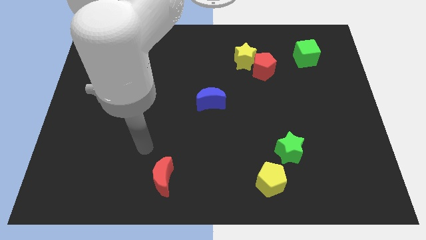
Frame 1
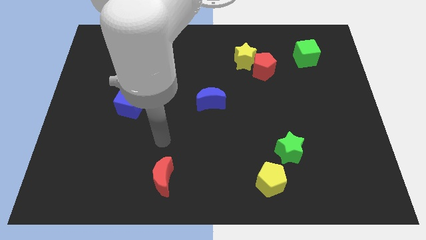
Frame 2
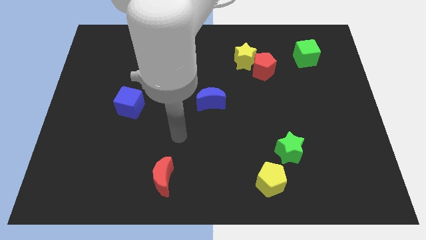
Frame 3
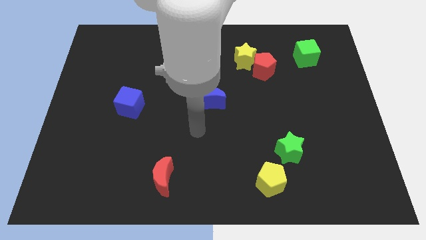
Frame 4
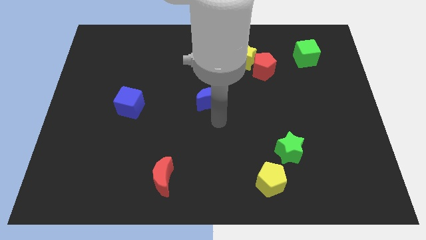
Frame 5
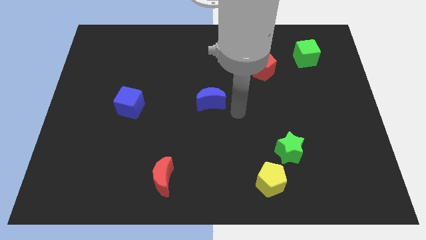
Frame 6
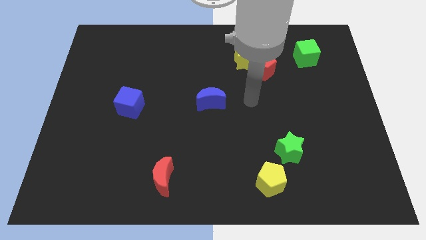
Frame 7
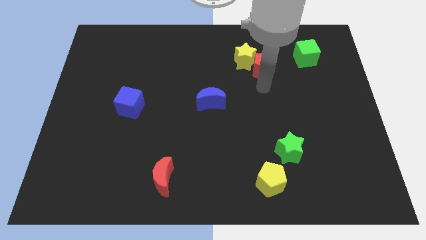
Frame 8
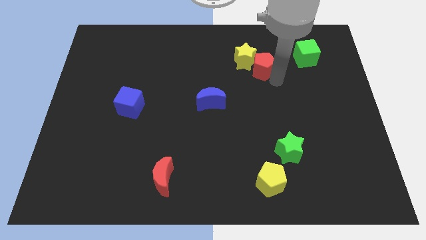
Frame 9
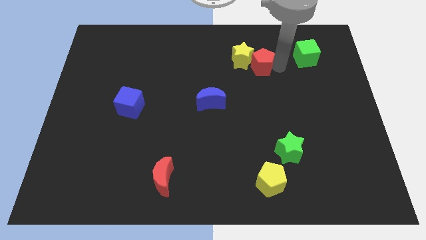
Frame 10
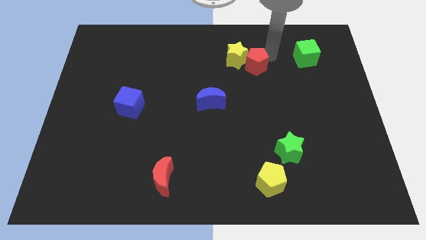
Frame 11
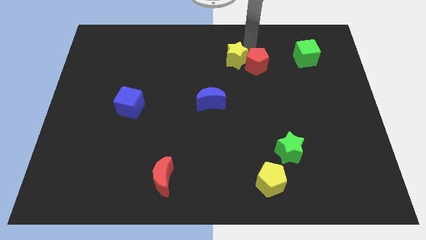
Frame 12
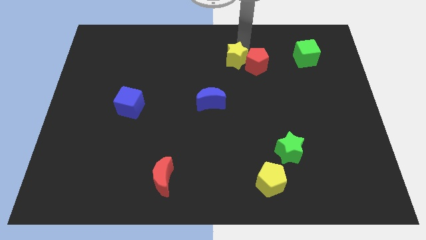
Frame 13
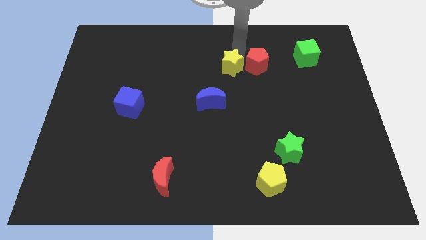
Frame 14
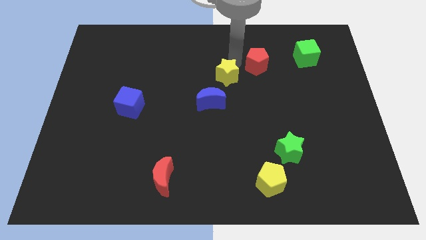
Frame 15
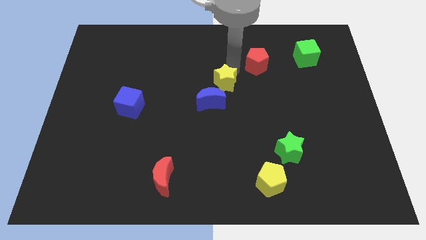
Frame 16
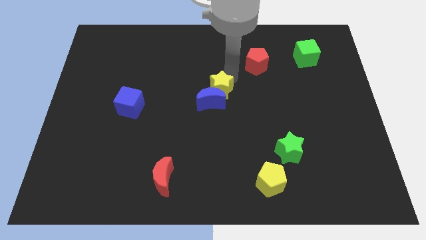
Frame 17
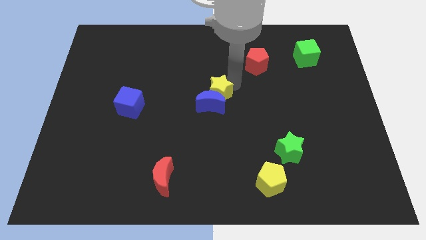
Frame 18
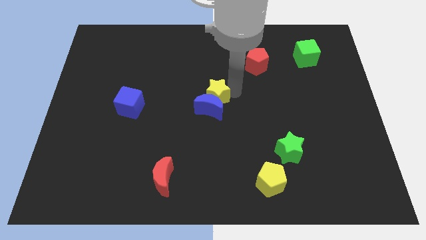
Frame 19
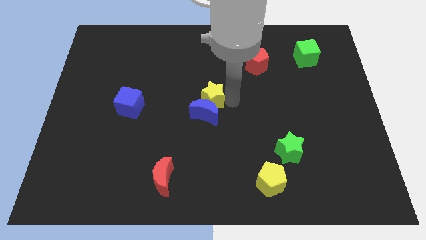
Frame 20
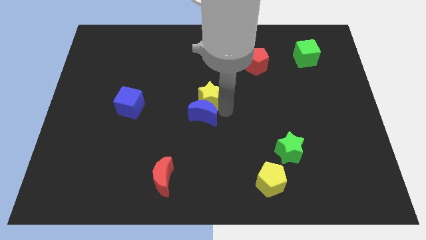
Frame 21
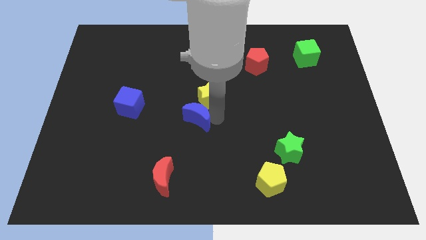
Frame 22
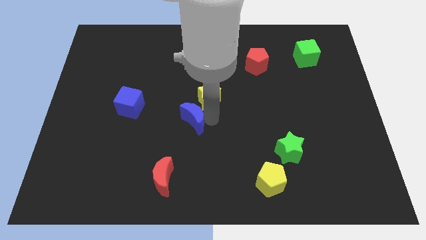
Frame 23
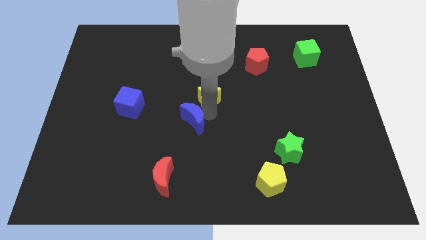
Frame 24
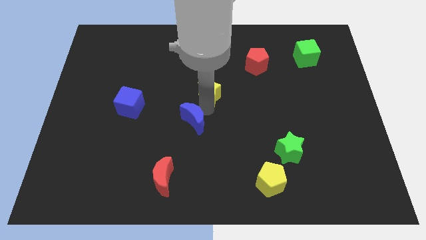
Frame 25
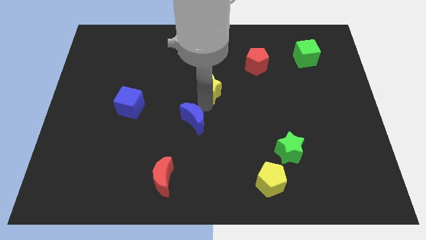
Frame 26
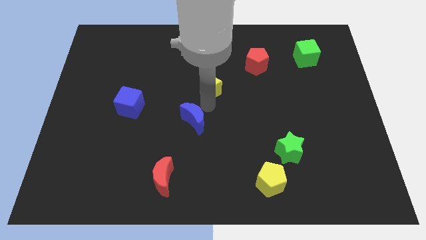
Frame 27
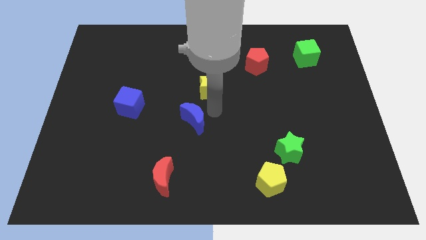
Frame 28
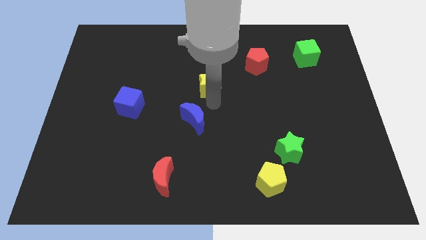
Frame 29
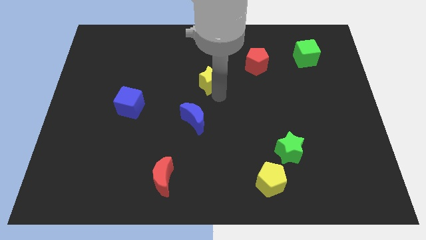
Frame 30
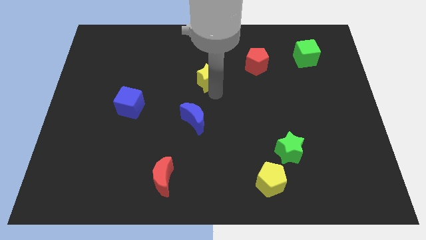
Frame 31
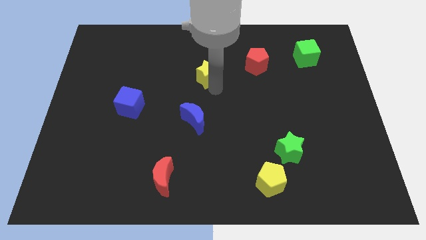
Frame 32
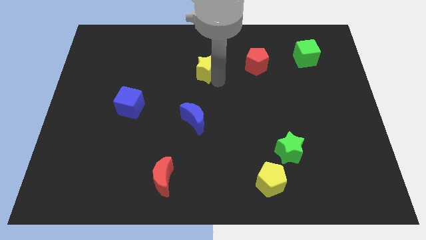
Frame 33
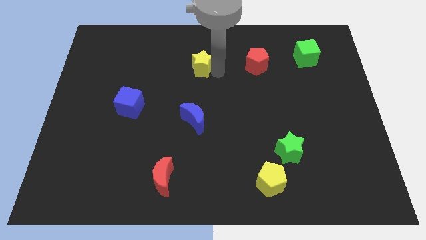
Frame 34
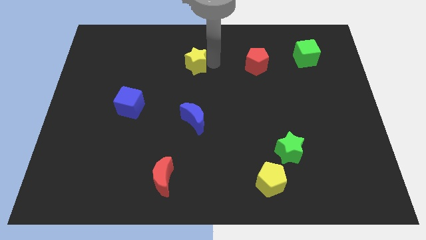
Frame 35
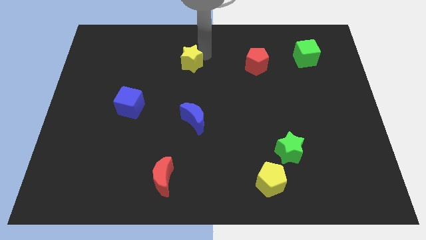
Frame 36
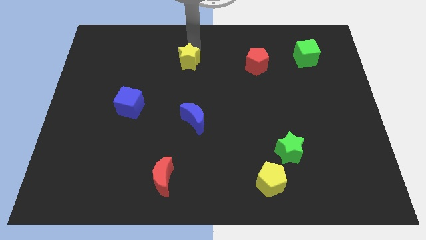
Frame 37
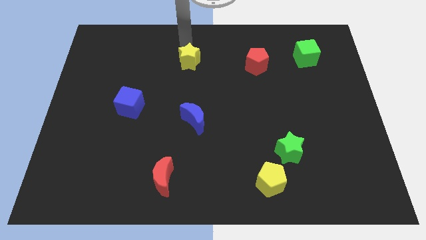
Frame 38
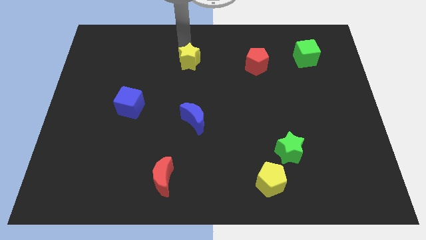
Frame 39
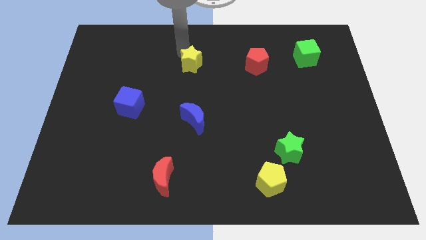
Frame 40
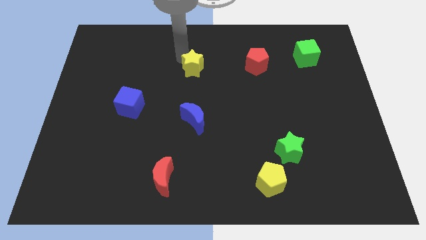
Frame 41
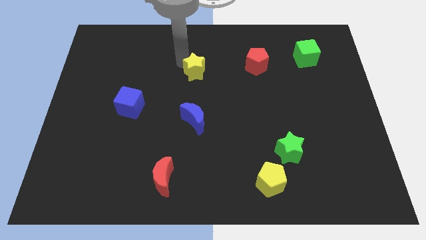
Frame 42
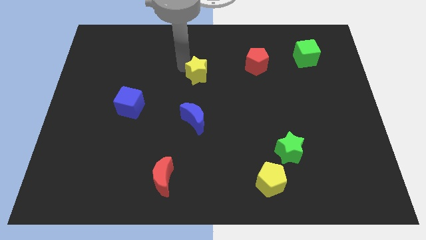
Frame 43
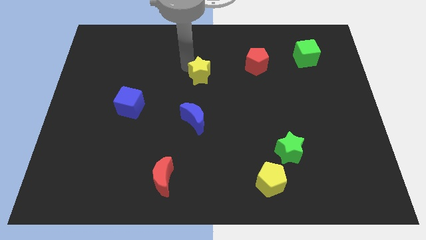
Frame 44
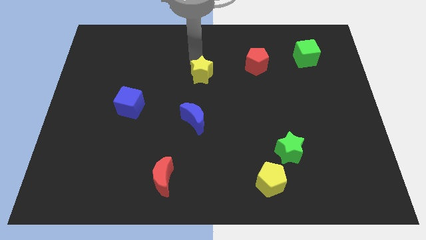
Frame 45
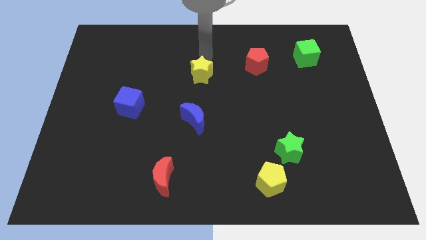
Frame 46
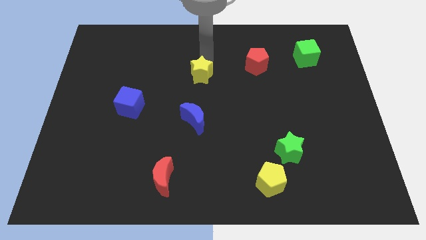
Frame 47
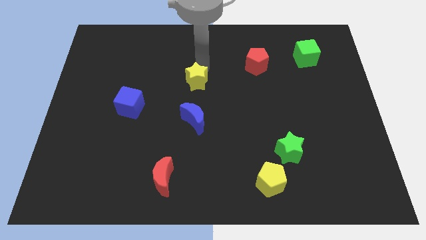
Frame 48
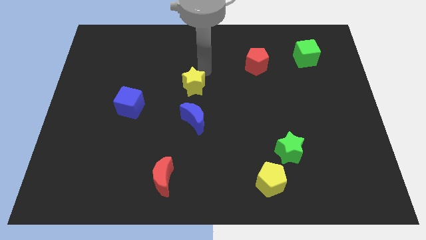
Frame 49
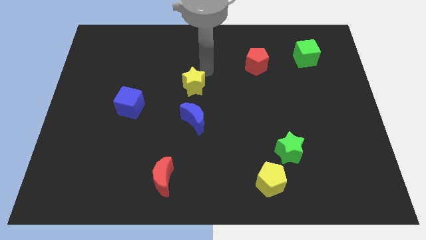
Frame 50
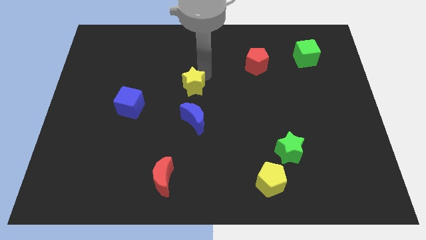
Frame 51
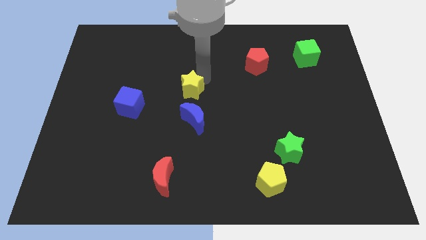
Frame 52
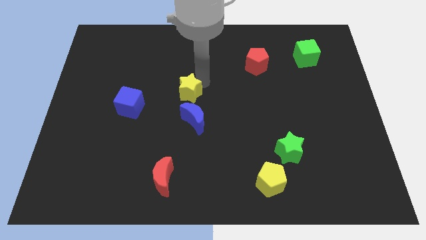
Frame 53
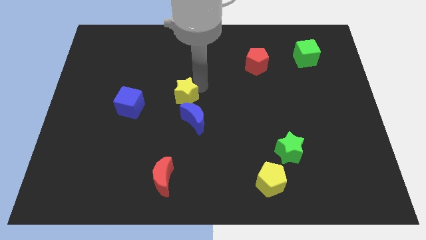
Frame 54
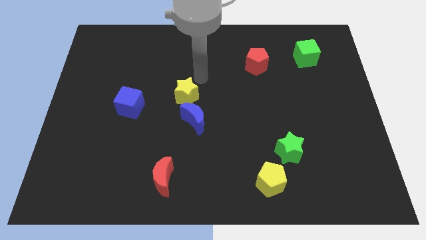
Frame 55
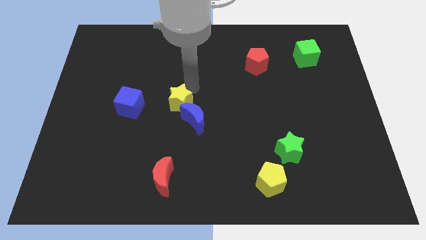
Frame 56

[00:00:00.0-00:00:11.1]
push the yellow star diagonally down and to the left

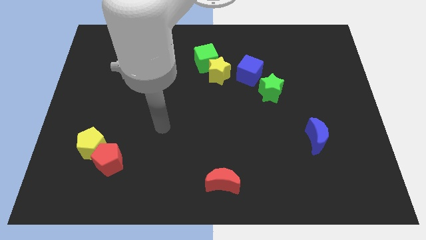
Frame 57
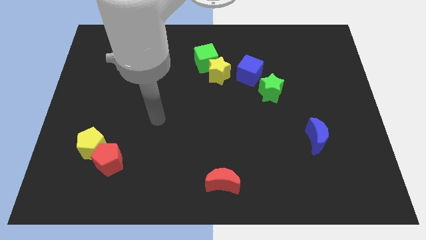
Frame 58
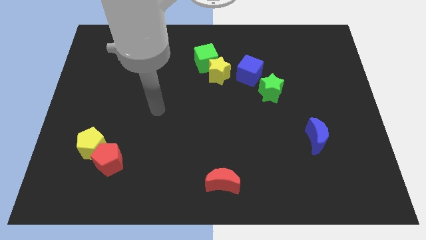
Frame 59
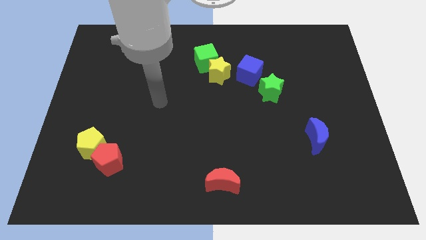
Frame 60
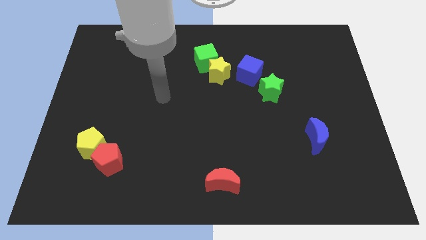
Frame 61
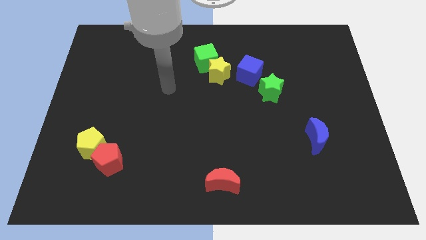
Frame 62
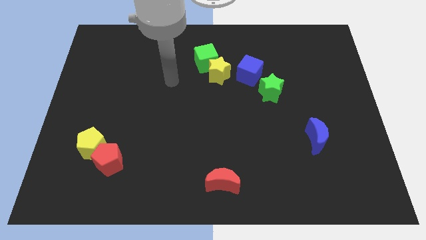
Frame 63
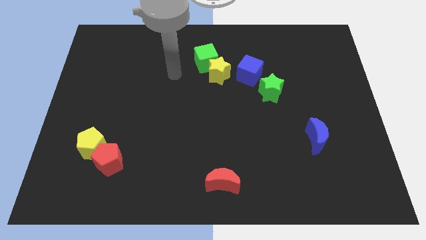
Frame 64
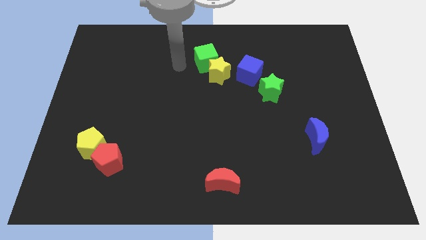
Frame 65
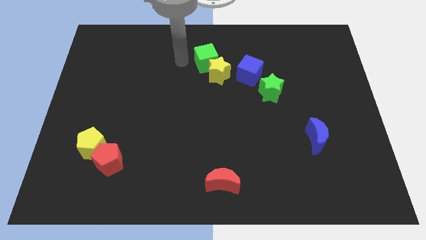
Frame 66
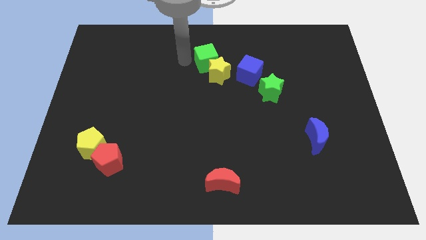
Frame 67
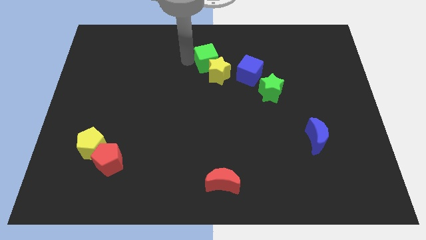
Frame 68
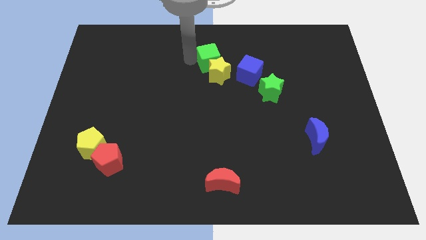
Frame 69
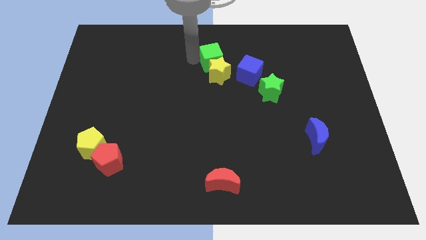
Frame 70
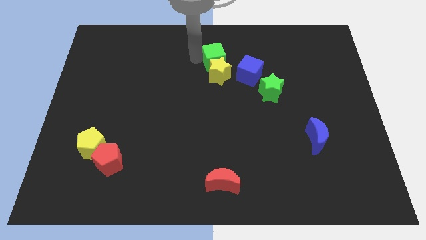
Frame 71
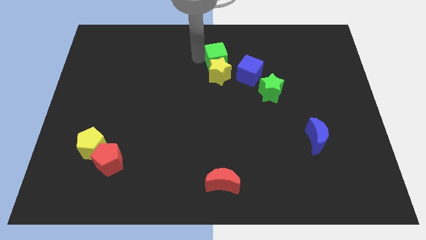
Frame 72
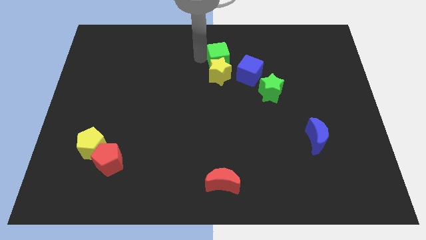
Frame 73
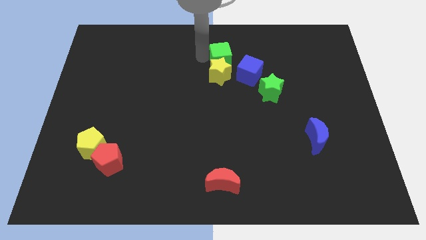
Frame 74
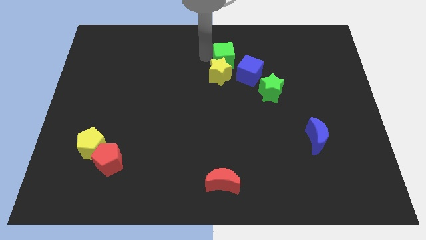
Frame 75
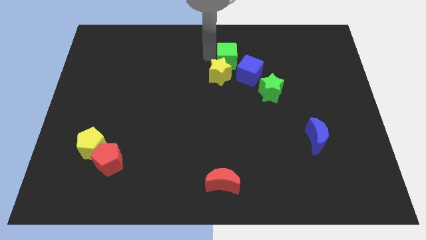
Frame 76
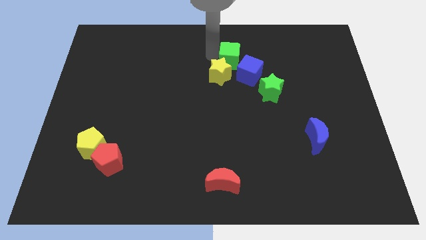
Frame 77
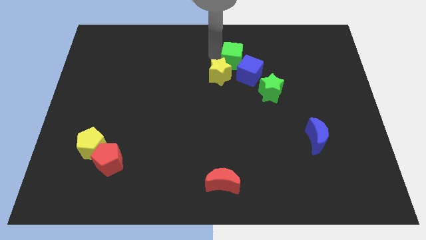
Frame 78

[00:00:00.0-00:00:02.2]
move the green cube a little bit right
